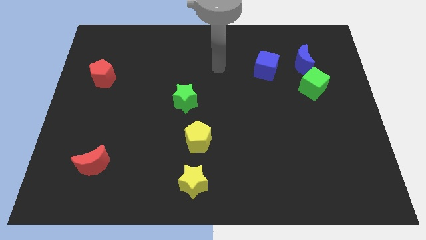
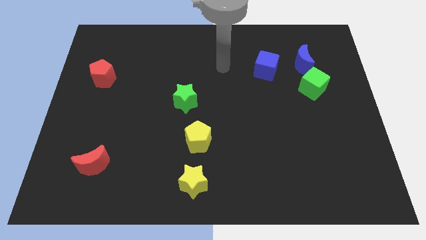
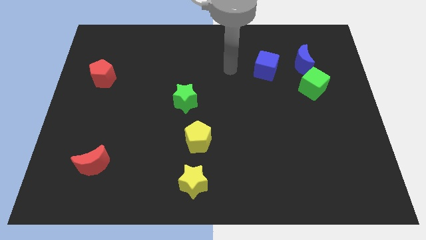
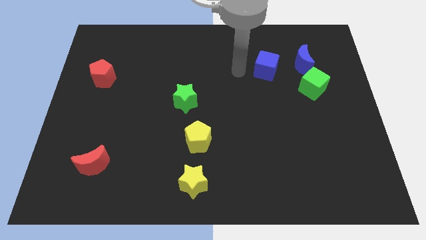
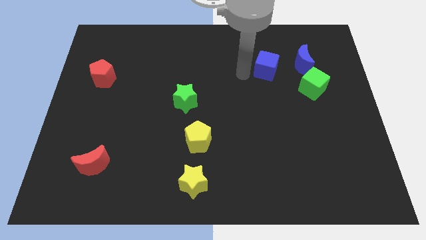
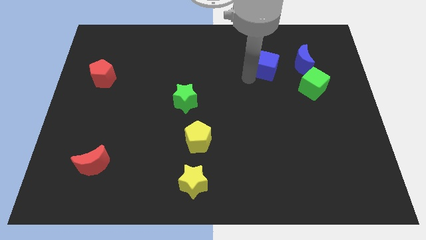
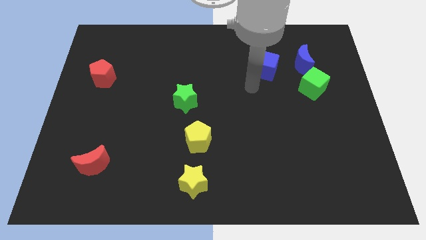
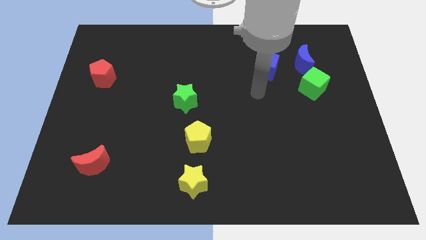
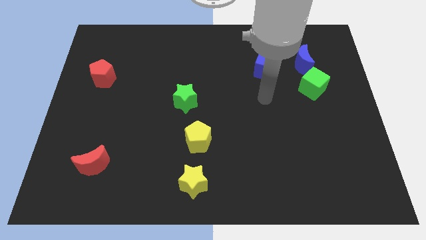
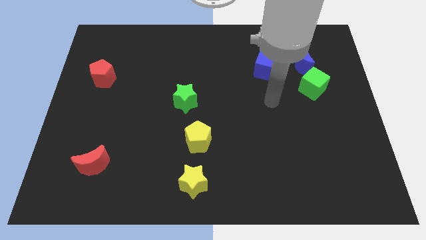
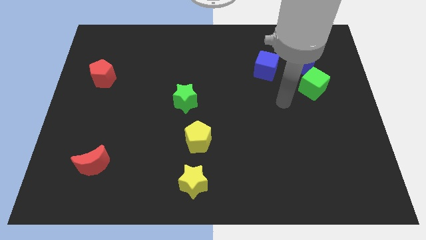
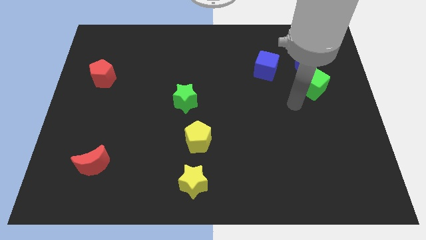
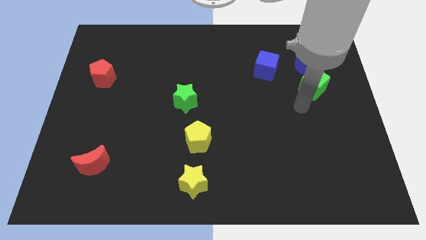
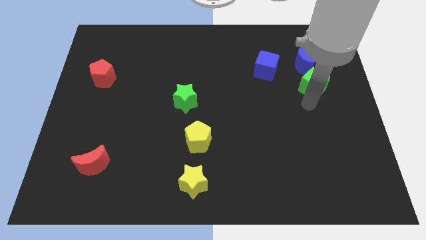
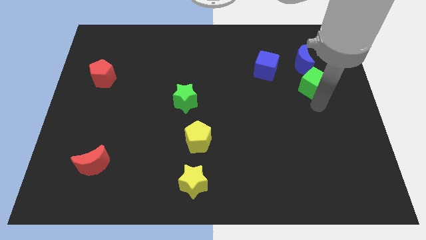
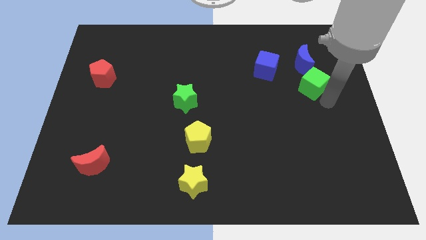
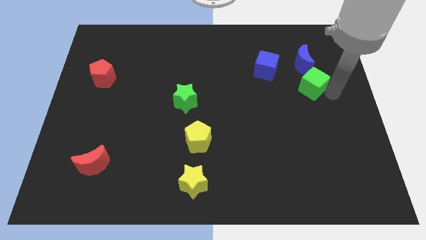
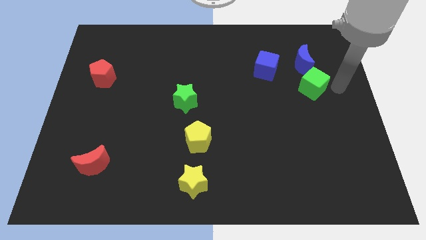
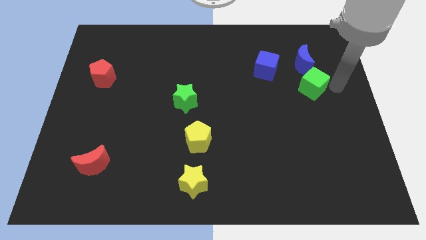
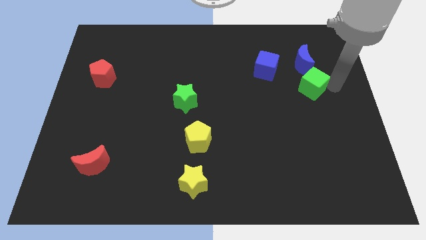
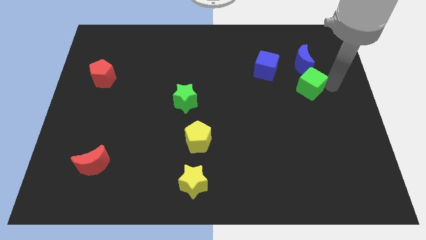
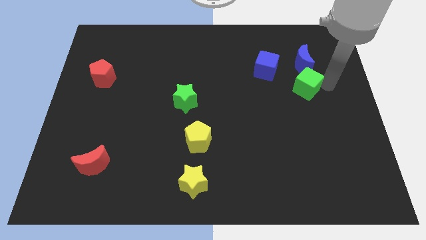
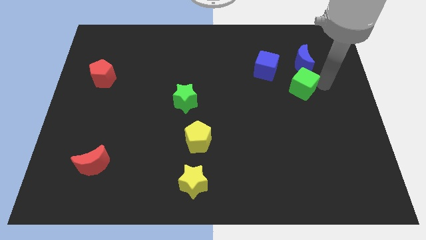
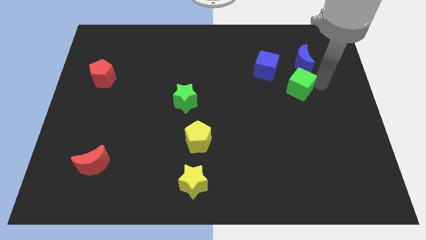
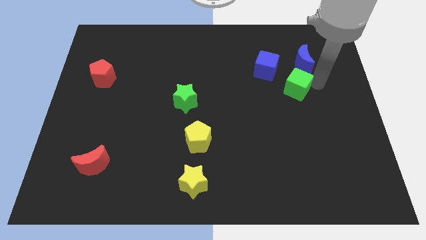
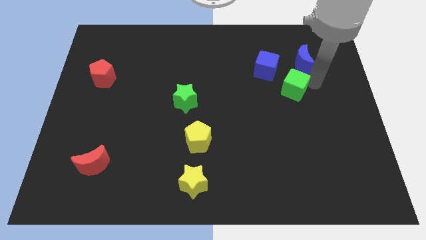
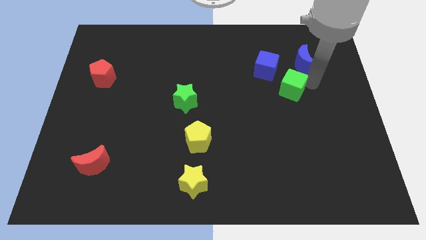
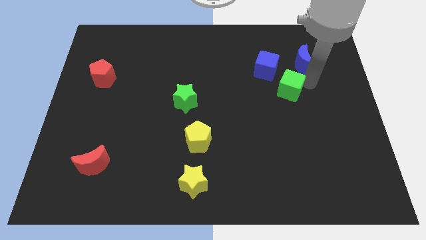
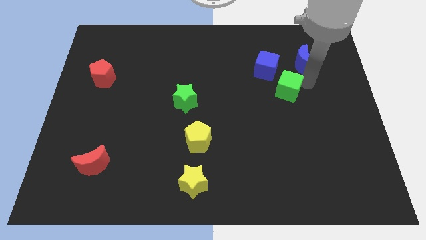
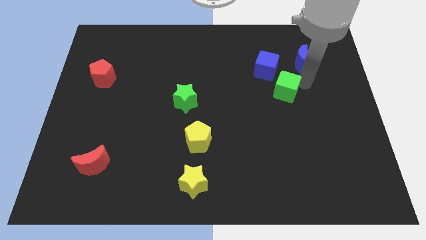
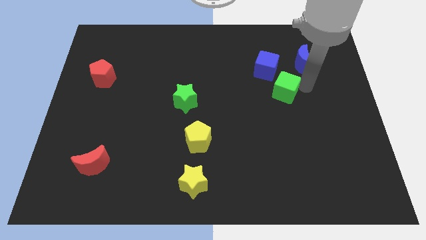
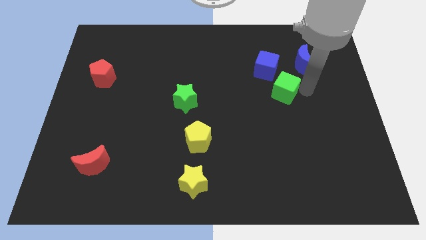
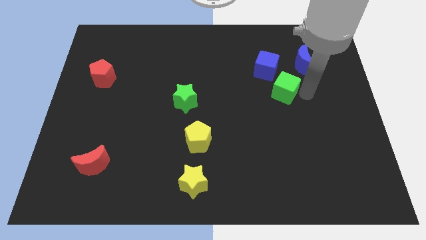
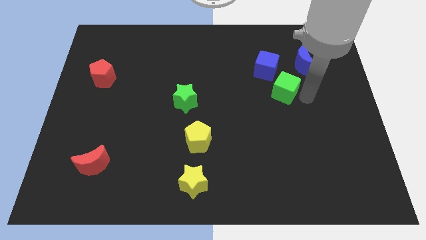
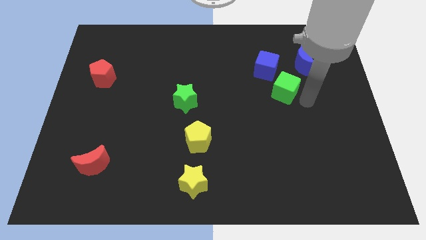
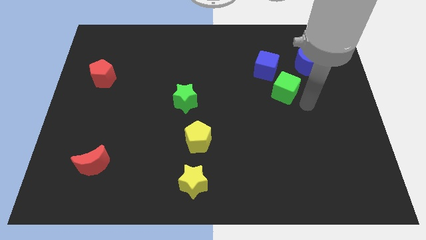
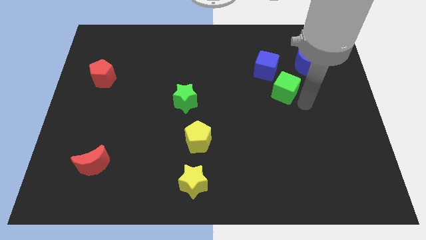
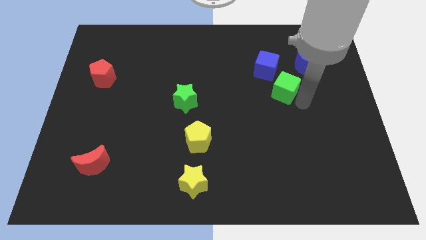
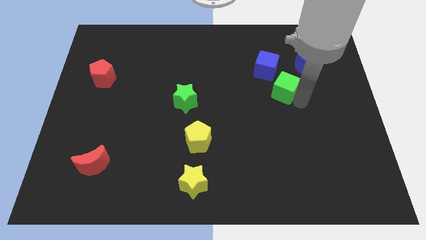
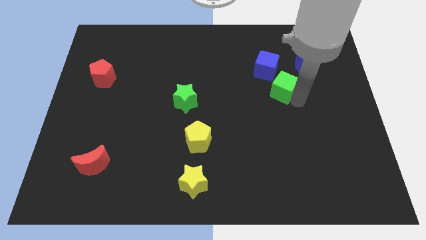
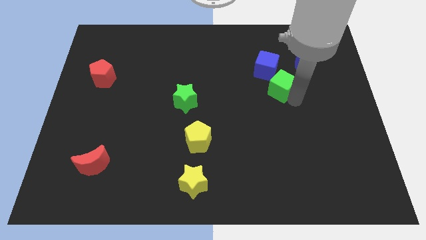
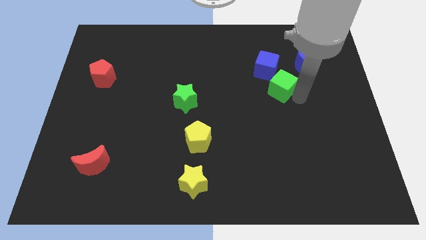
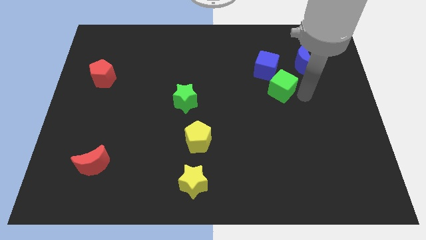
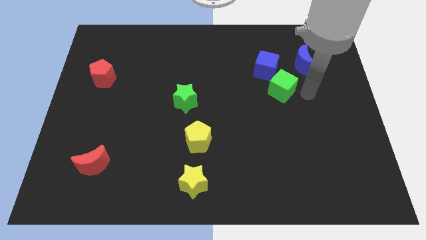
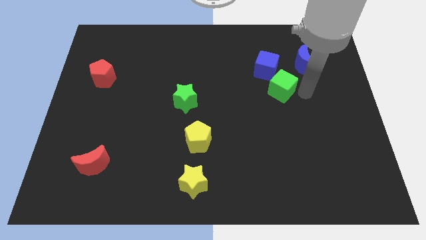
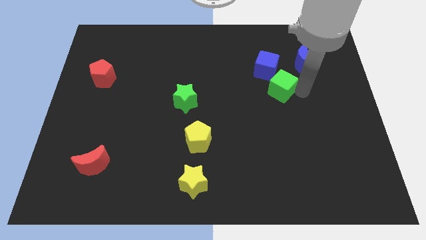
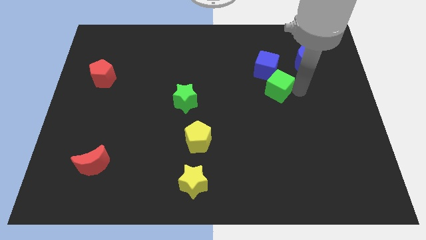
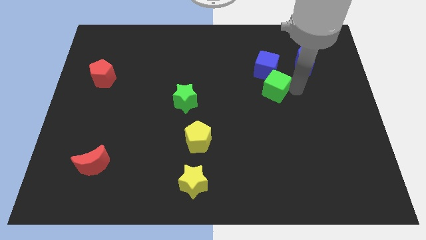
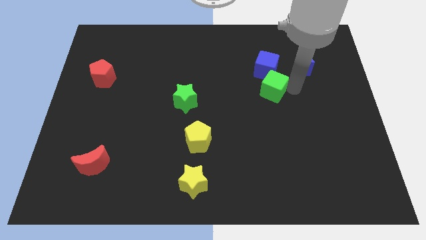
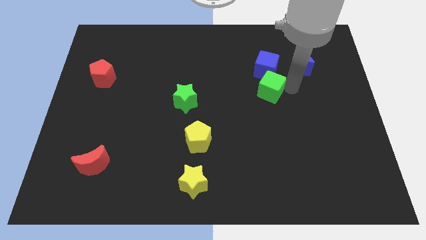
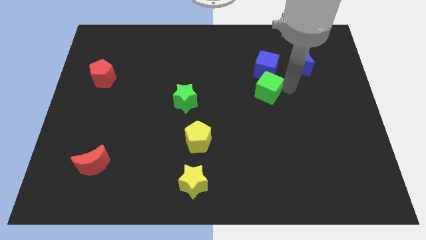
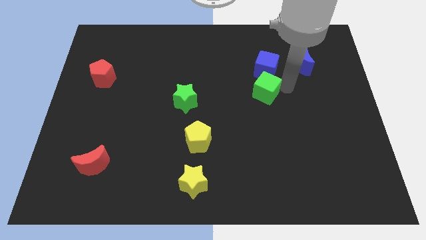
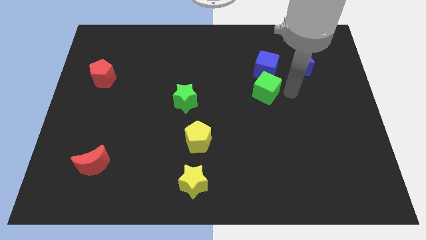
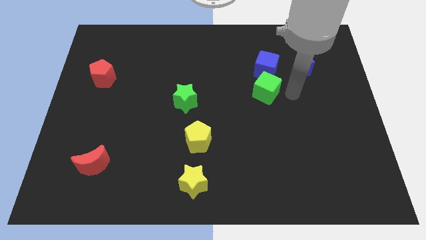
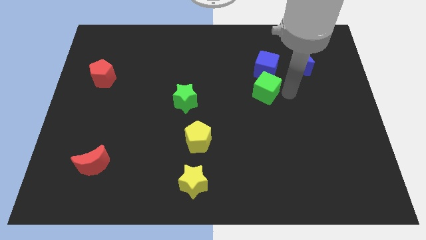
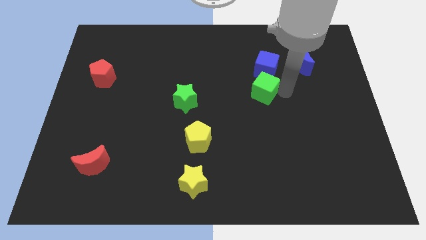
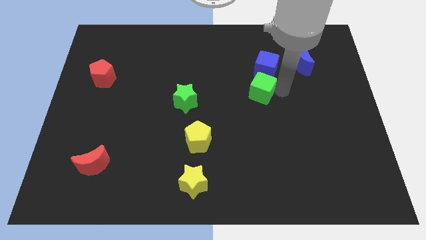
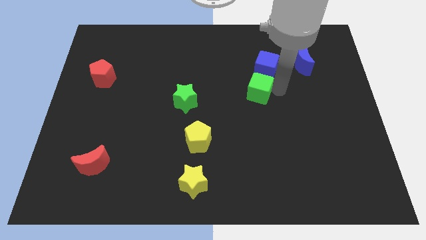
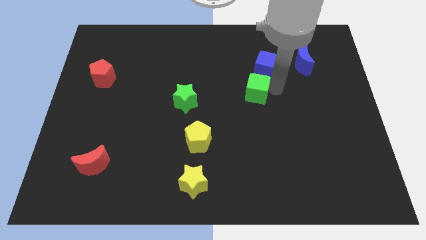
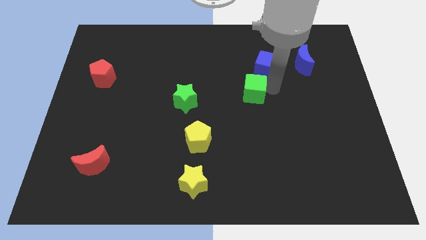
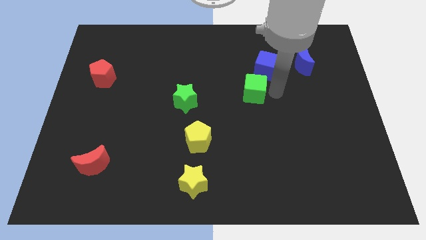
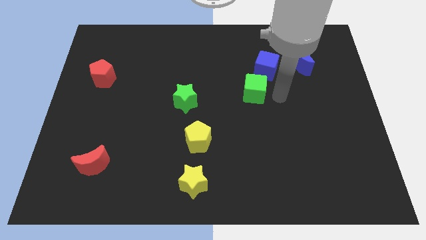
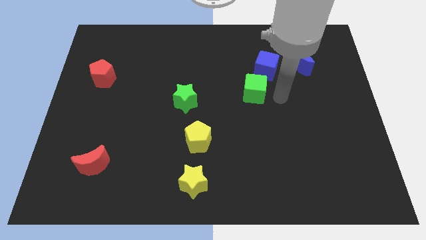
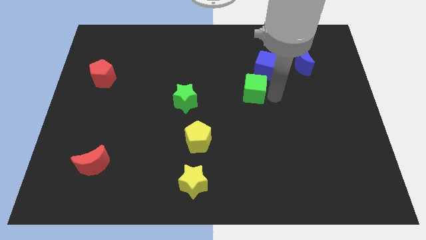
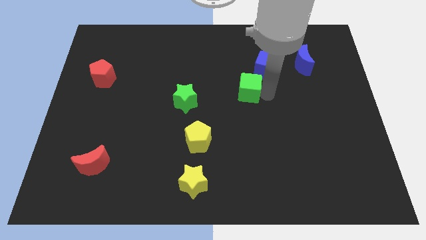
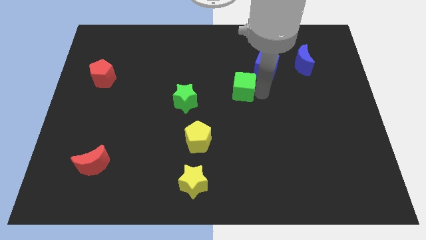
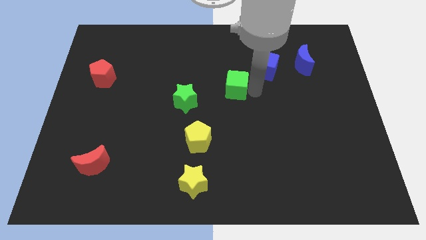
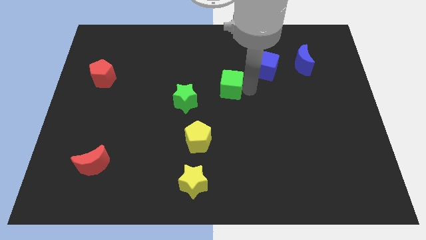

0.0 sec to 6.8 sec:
push the green cube left

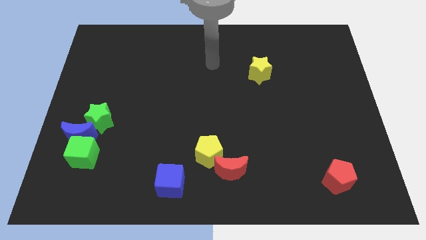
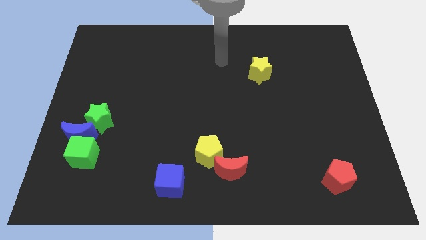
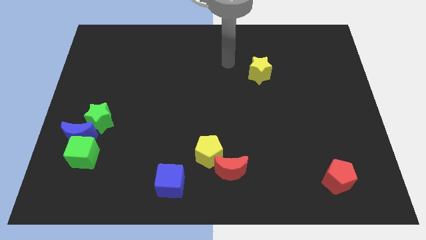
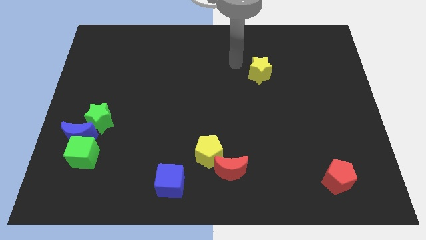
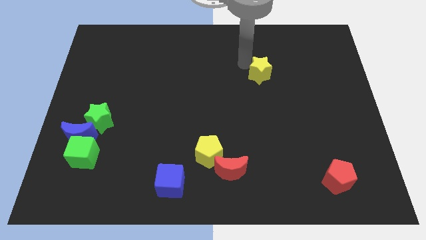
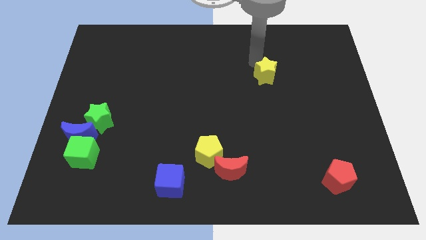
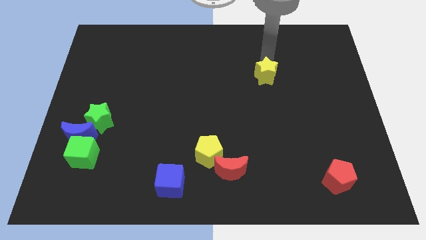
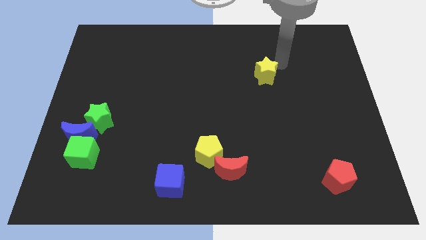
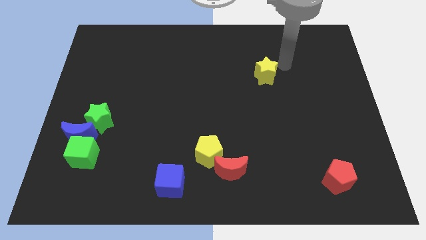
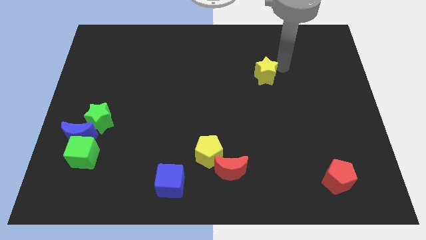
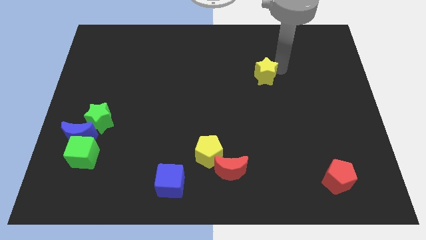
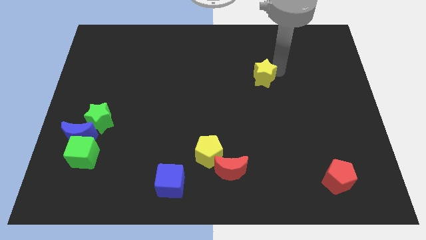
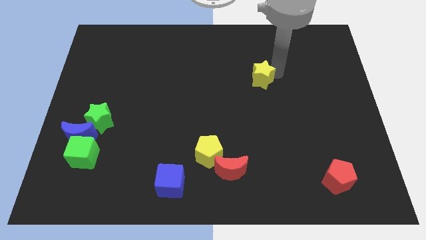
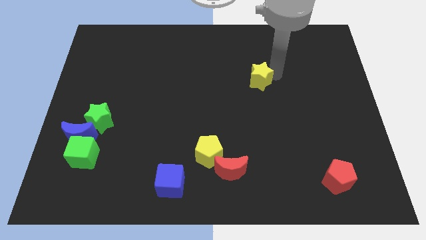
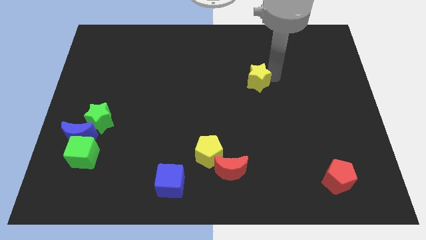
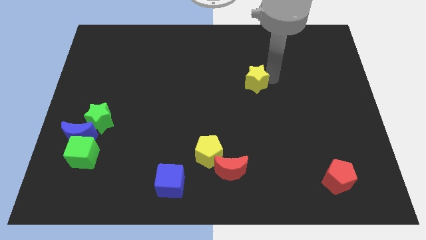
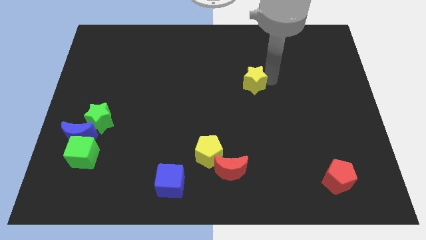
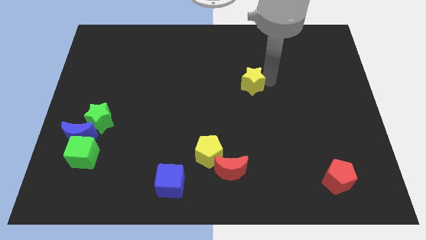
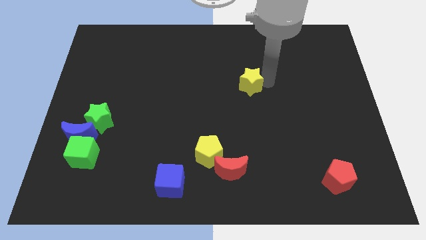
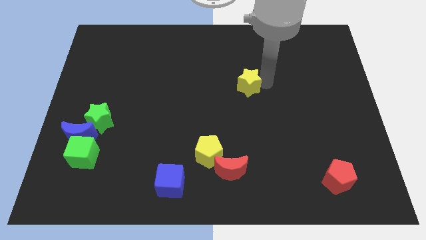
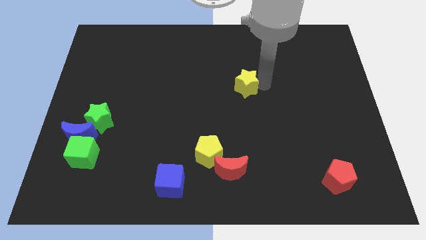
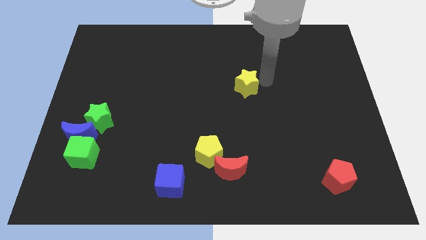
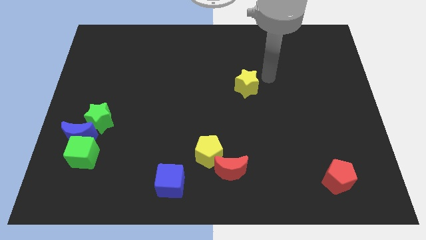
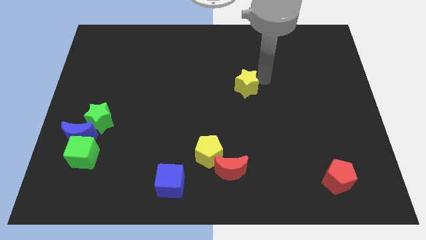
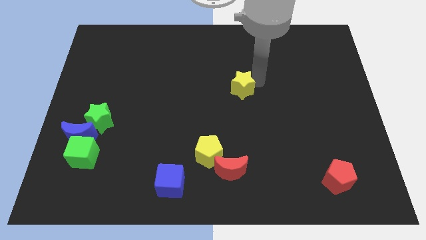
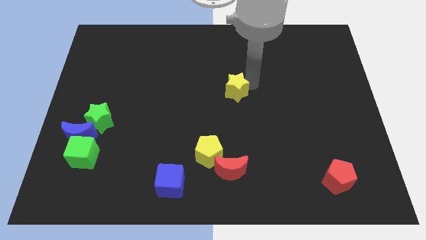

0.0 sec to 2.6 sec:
push the yellow star down and left a bit
